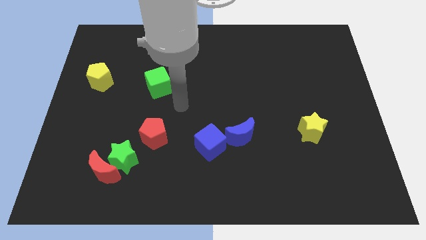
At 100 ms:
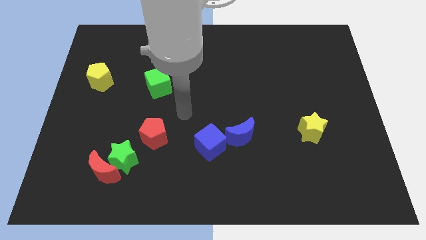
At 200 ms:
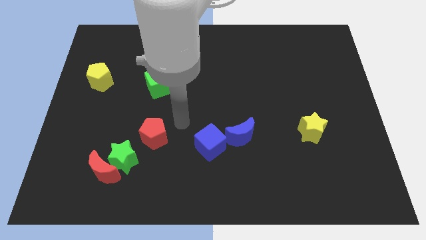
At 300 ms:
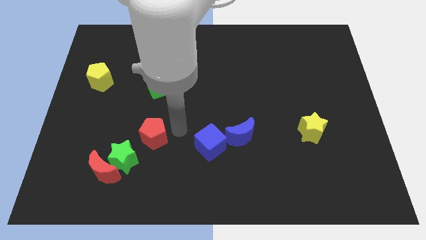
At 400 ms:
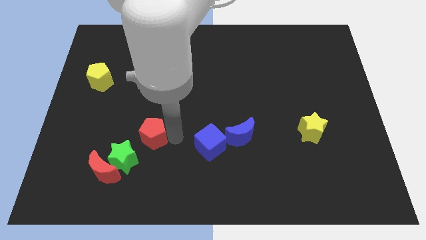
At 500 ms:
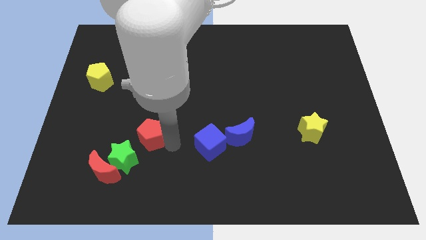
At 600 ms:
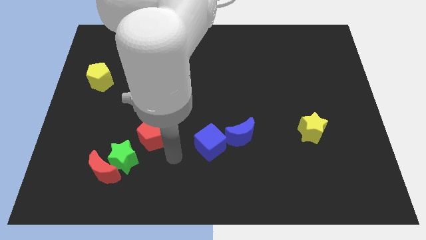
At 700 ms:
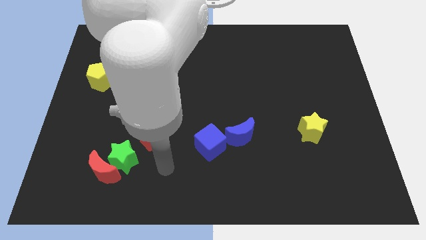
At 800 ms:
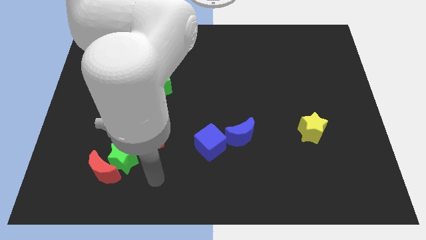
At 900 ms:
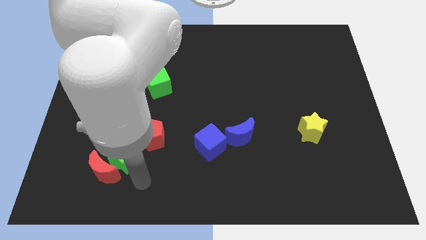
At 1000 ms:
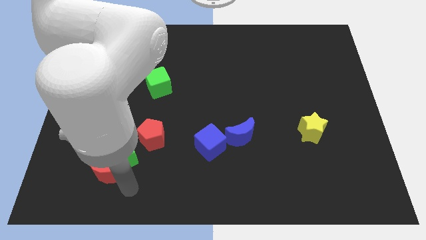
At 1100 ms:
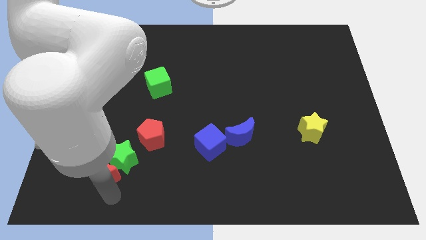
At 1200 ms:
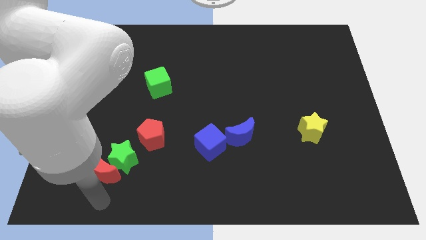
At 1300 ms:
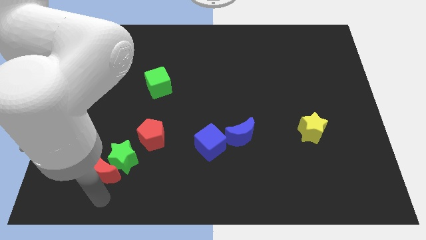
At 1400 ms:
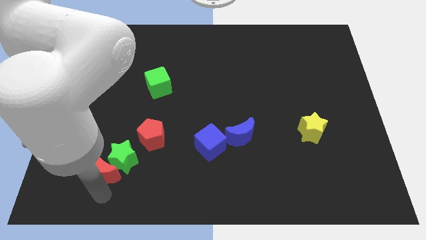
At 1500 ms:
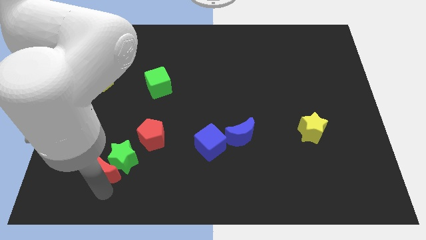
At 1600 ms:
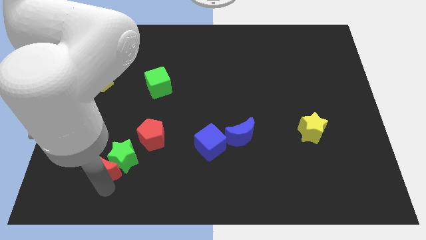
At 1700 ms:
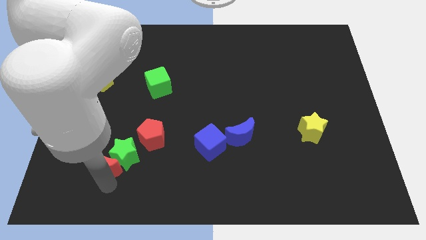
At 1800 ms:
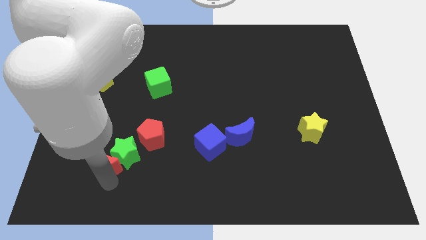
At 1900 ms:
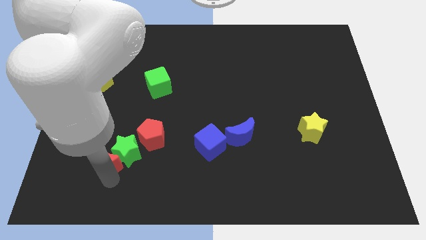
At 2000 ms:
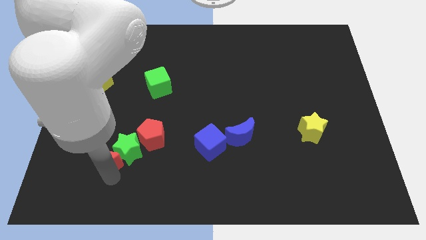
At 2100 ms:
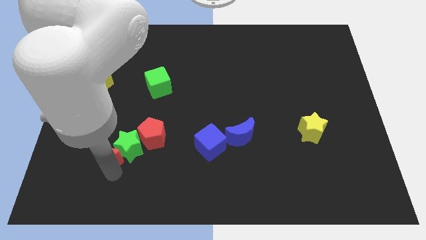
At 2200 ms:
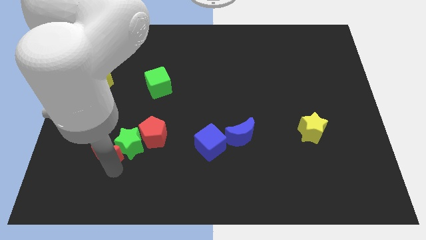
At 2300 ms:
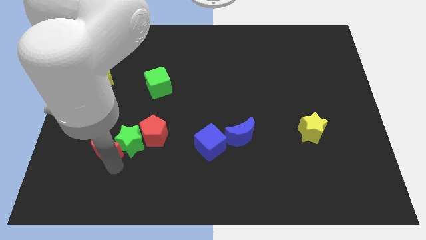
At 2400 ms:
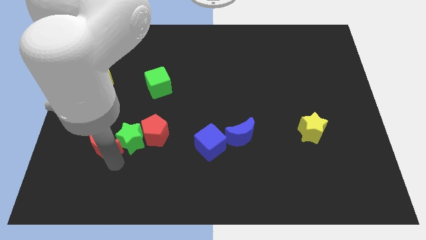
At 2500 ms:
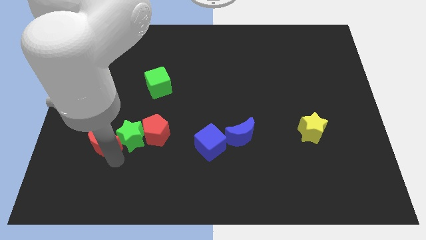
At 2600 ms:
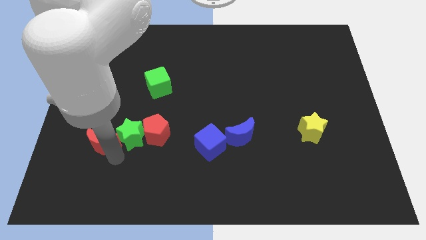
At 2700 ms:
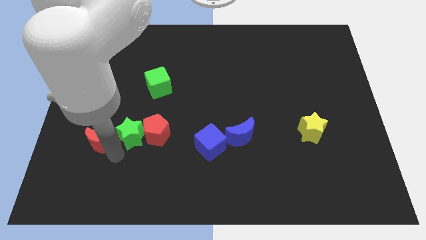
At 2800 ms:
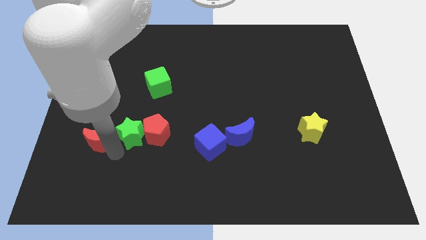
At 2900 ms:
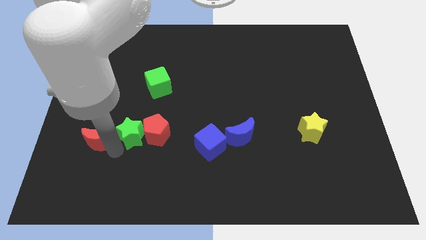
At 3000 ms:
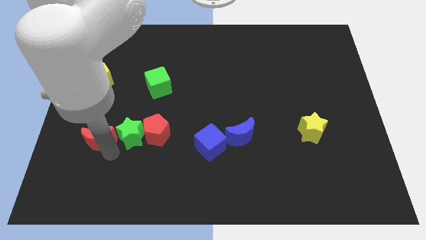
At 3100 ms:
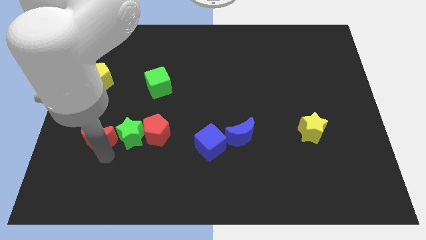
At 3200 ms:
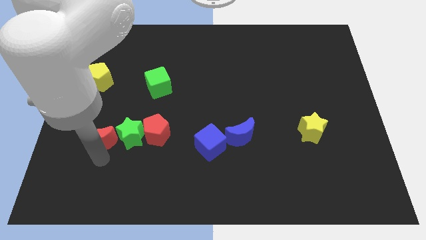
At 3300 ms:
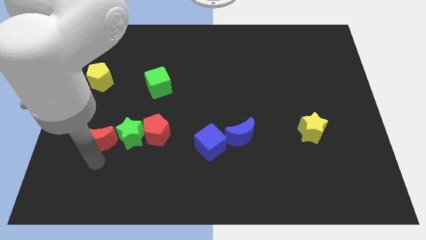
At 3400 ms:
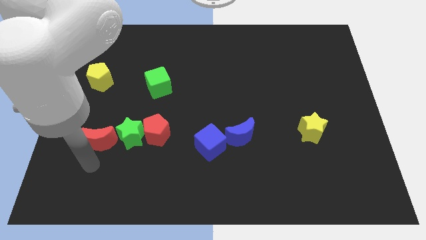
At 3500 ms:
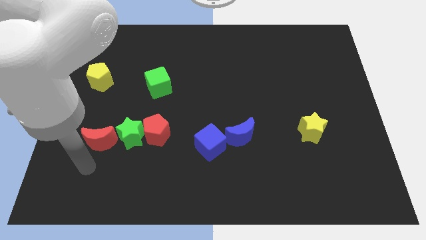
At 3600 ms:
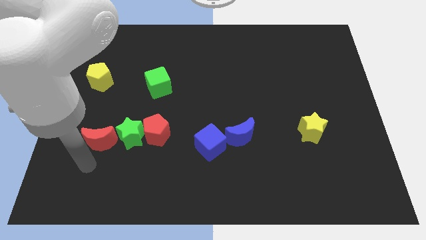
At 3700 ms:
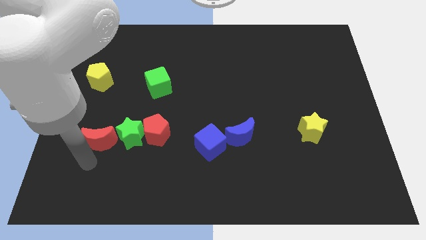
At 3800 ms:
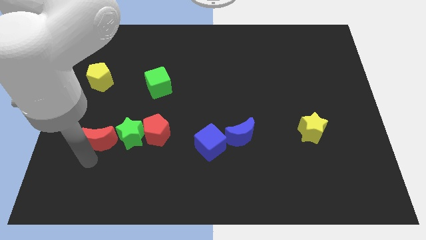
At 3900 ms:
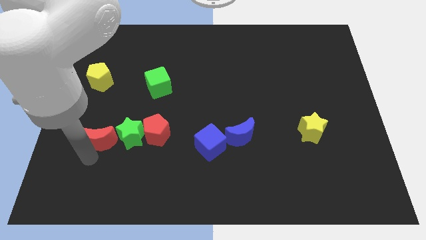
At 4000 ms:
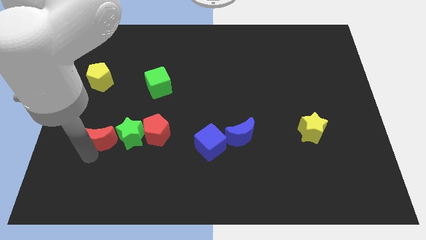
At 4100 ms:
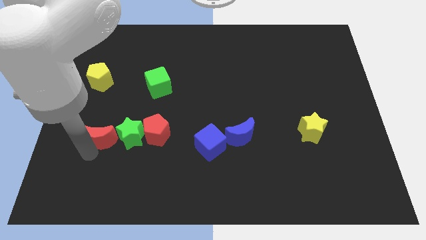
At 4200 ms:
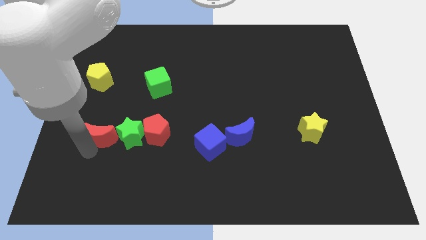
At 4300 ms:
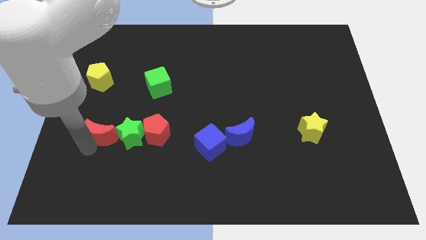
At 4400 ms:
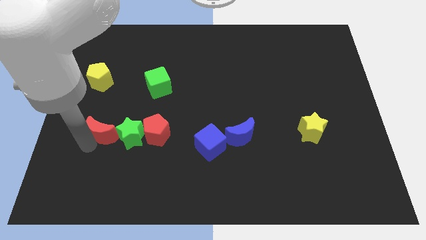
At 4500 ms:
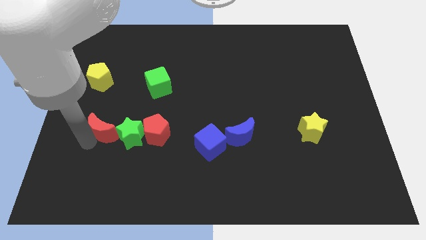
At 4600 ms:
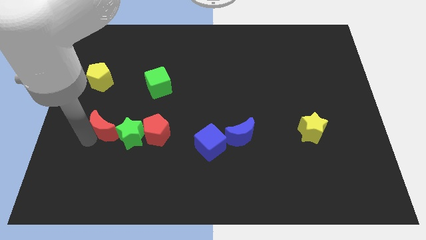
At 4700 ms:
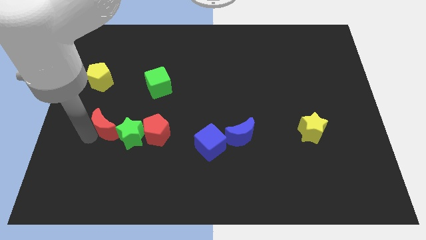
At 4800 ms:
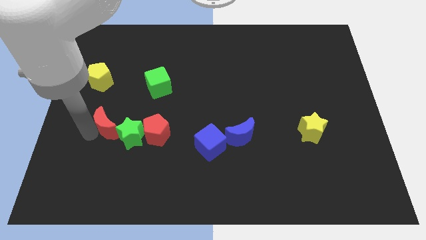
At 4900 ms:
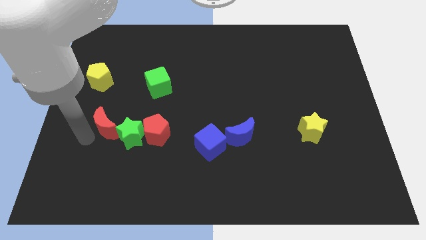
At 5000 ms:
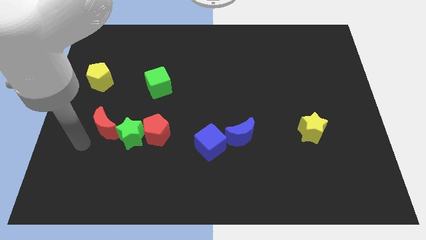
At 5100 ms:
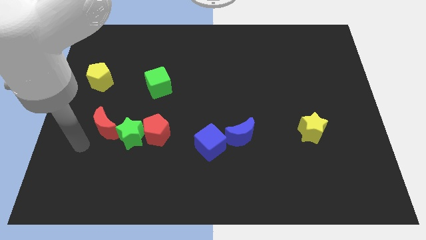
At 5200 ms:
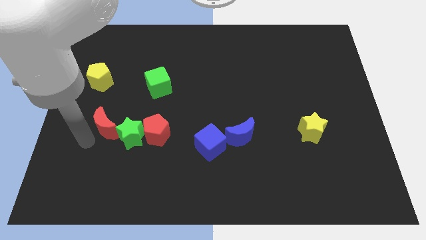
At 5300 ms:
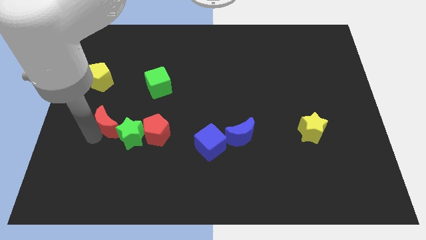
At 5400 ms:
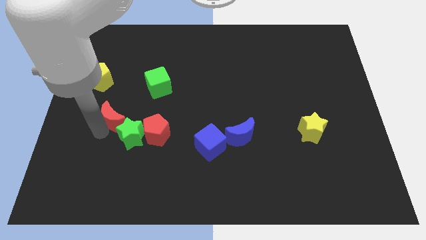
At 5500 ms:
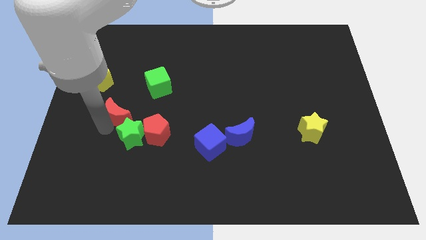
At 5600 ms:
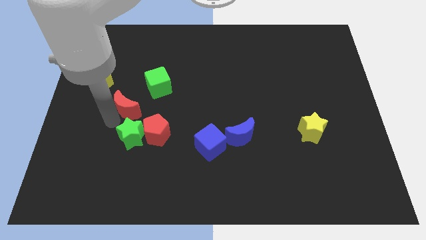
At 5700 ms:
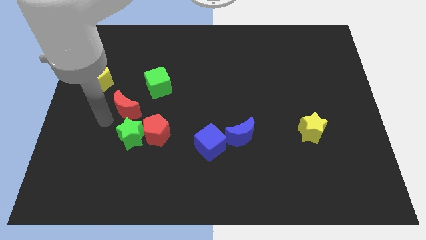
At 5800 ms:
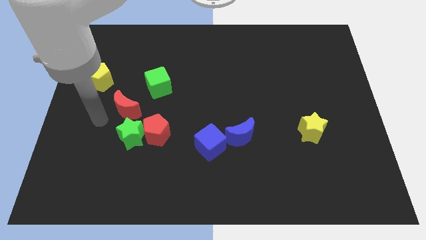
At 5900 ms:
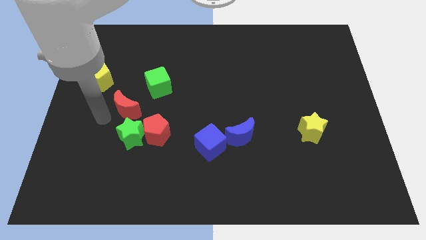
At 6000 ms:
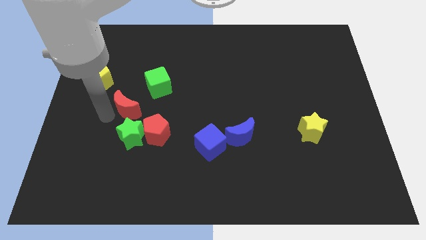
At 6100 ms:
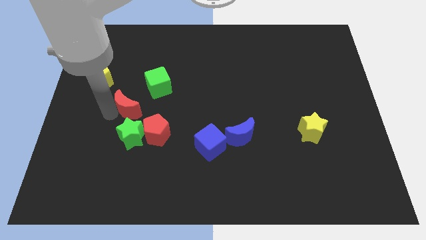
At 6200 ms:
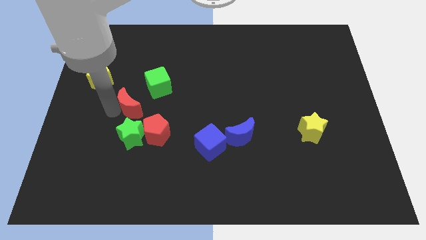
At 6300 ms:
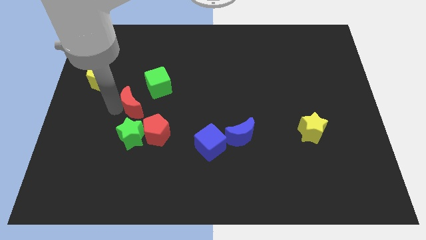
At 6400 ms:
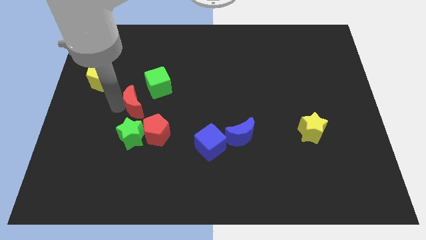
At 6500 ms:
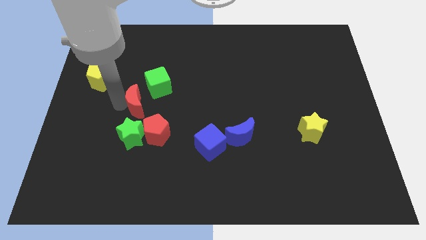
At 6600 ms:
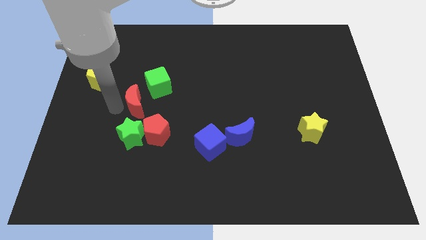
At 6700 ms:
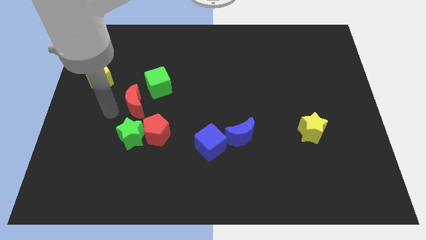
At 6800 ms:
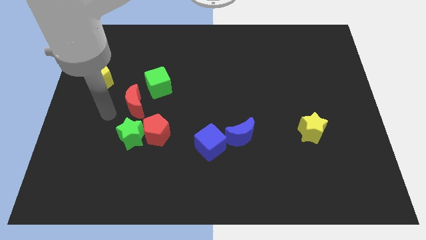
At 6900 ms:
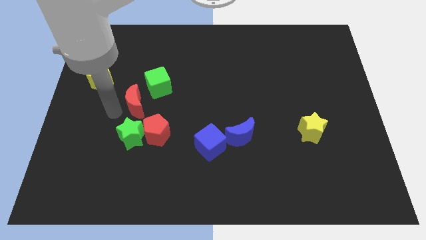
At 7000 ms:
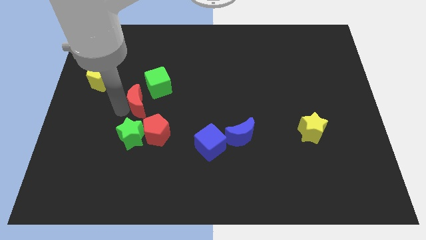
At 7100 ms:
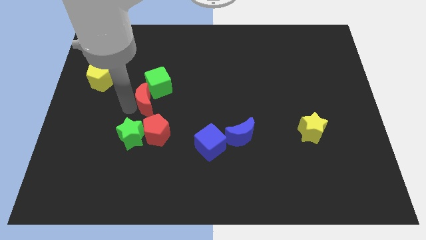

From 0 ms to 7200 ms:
push the red moon to the top side of the red pentagon

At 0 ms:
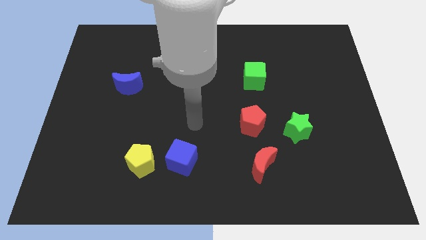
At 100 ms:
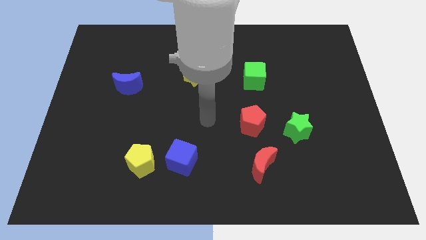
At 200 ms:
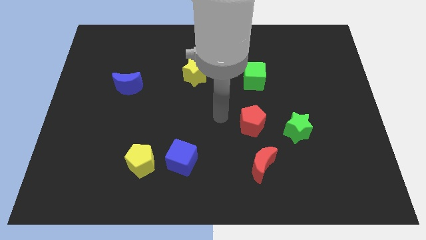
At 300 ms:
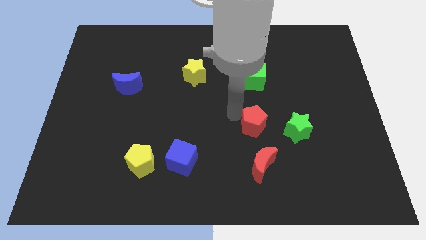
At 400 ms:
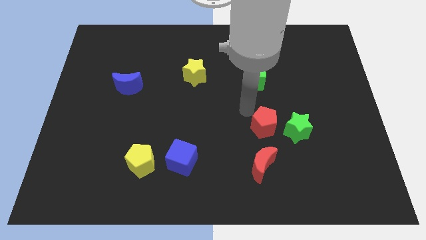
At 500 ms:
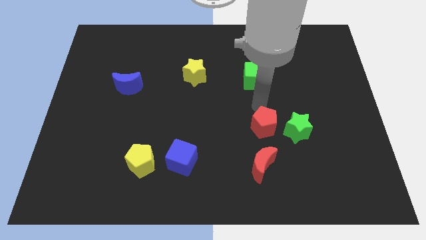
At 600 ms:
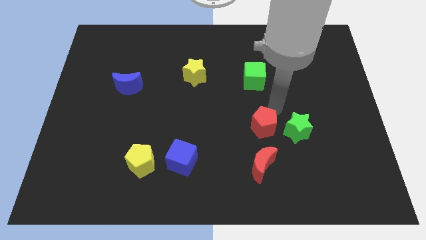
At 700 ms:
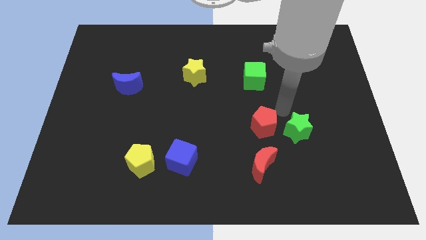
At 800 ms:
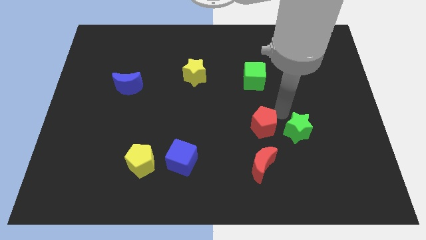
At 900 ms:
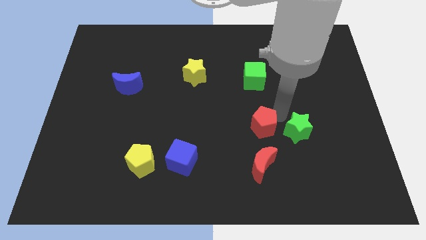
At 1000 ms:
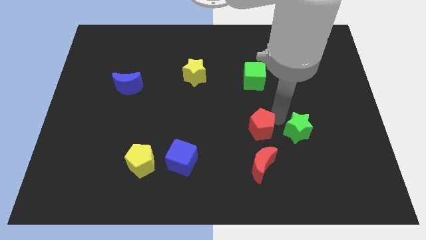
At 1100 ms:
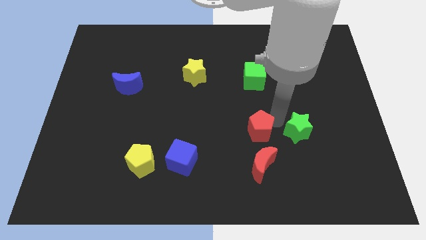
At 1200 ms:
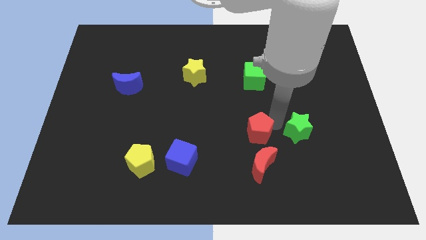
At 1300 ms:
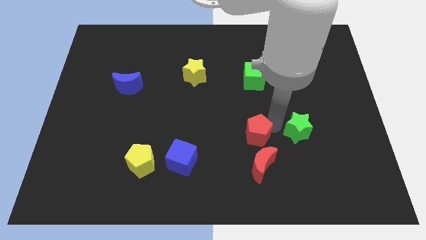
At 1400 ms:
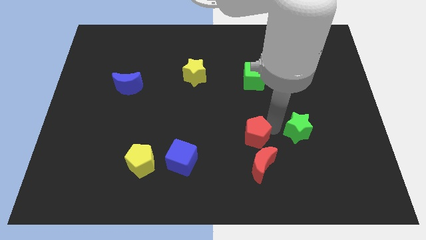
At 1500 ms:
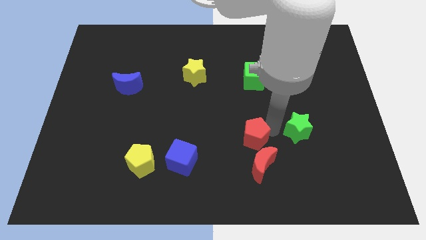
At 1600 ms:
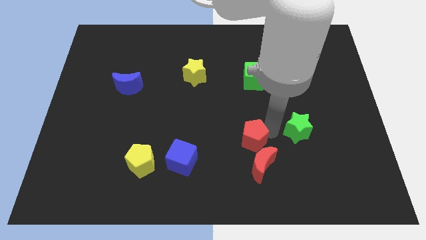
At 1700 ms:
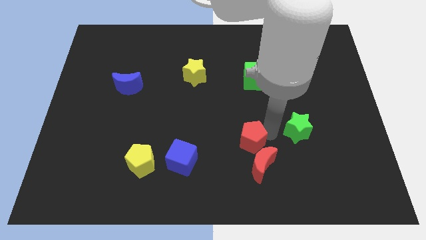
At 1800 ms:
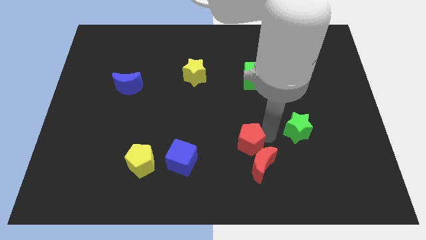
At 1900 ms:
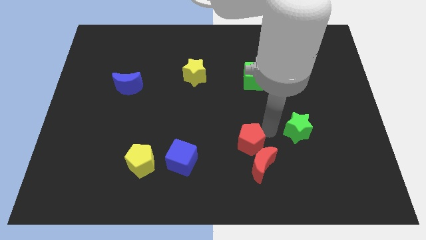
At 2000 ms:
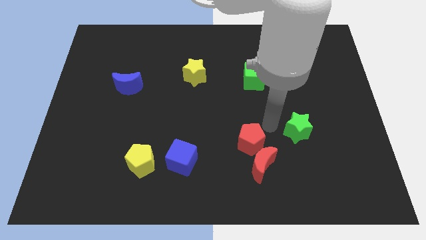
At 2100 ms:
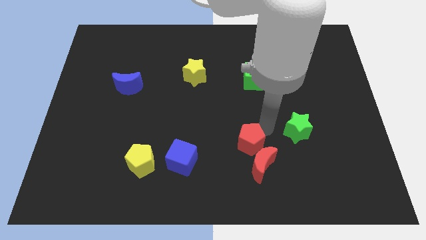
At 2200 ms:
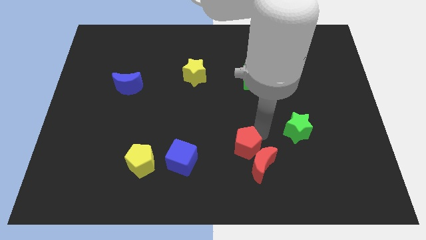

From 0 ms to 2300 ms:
move the red pentagon just right of the blue cube
